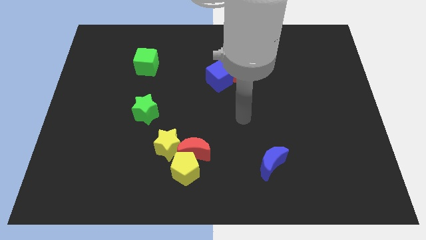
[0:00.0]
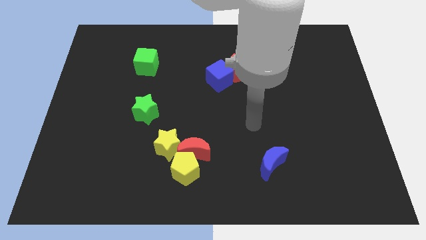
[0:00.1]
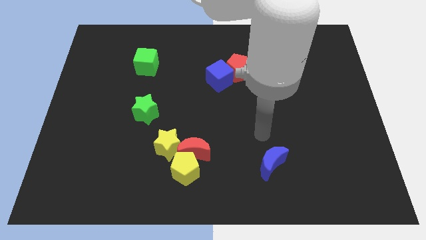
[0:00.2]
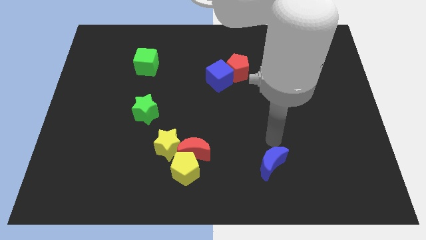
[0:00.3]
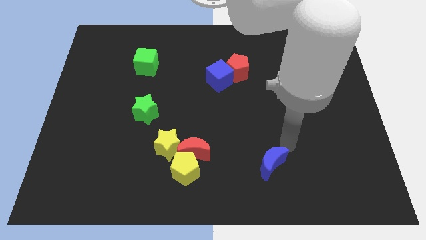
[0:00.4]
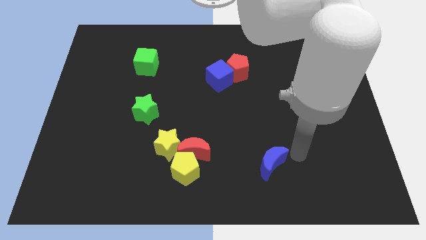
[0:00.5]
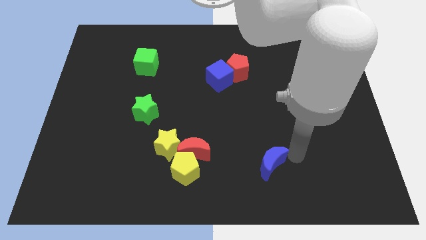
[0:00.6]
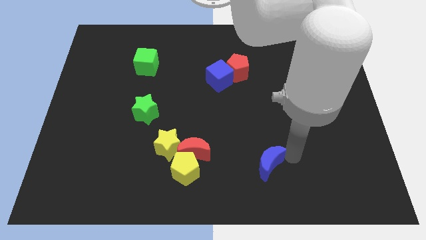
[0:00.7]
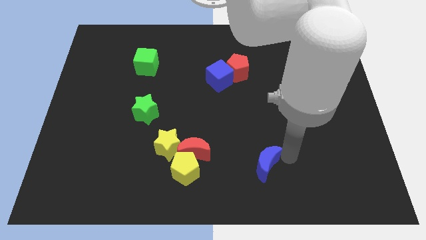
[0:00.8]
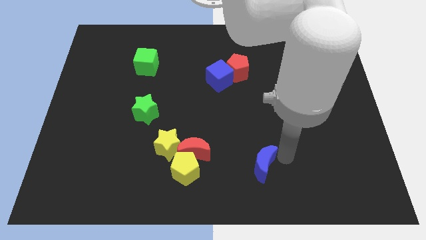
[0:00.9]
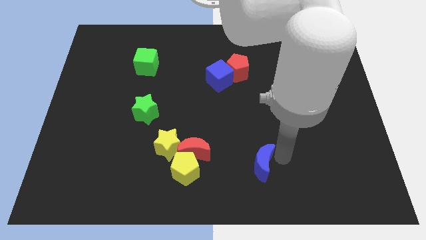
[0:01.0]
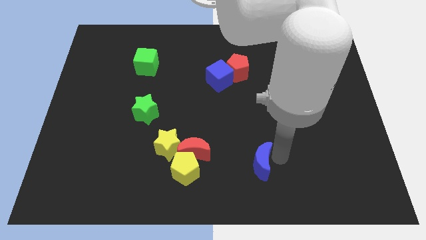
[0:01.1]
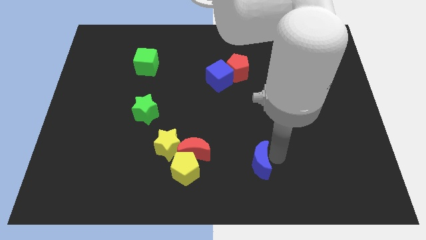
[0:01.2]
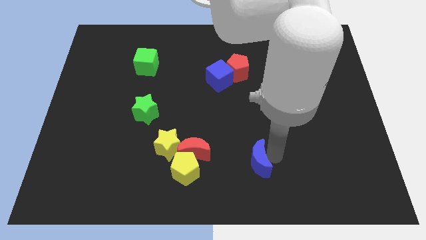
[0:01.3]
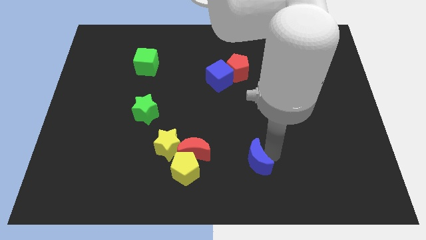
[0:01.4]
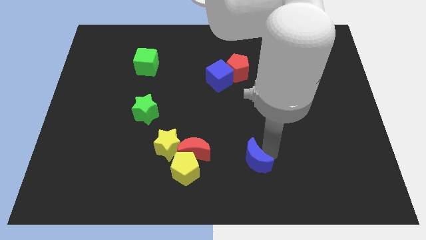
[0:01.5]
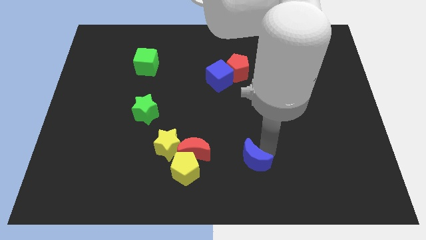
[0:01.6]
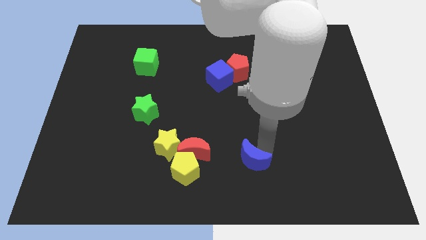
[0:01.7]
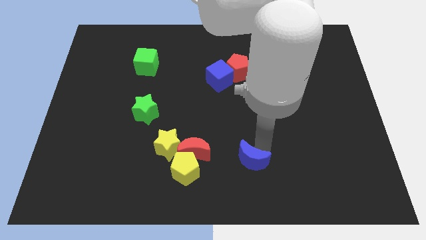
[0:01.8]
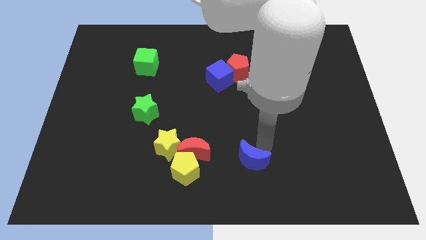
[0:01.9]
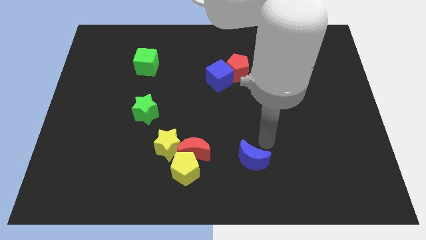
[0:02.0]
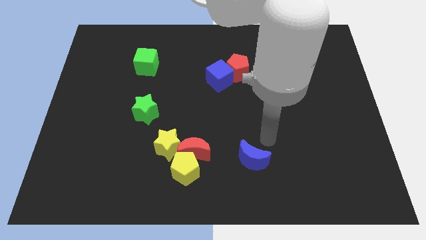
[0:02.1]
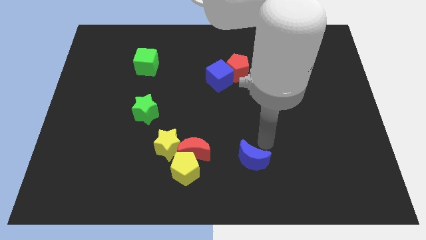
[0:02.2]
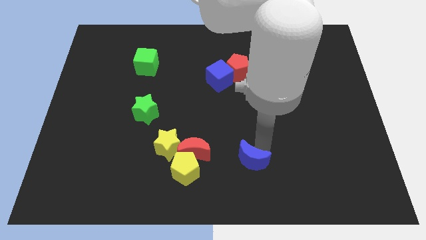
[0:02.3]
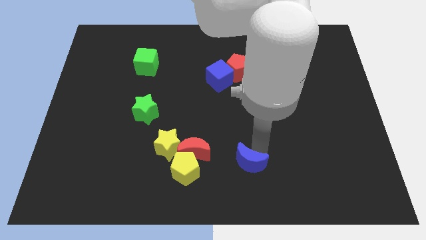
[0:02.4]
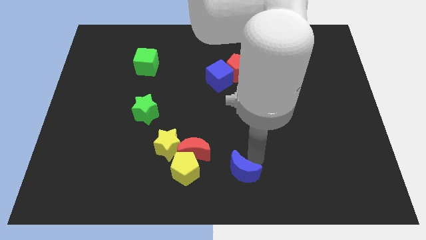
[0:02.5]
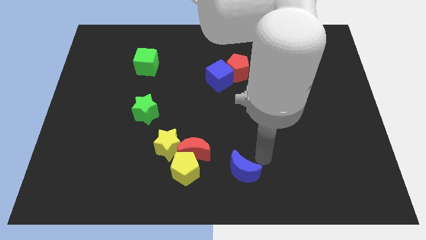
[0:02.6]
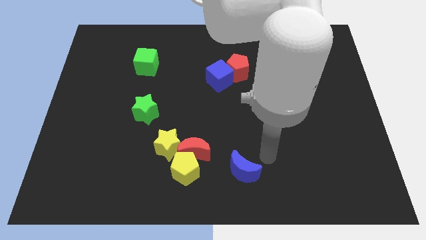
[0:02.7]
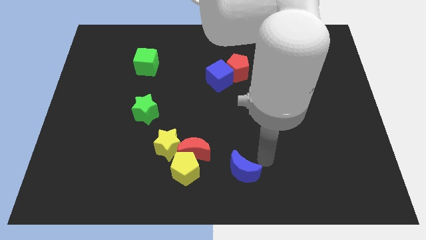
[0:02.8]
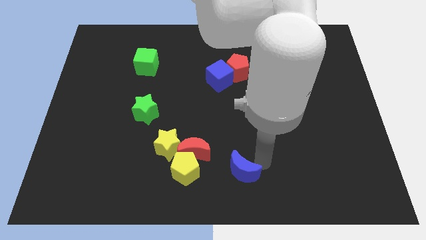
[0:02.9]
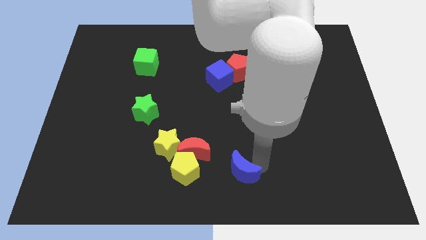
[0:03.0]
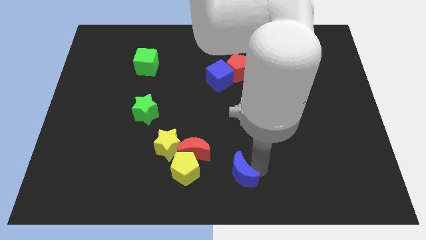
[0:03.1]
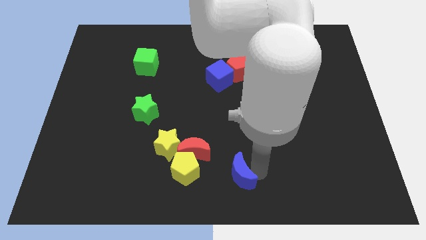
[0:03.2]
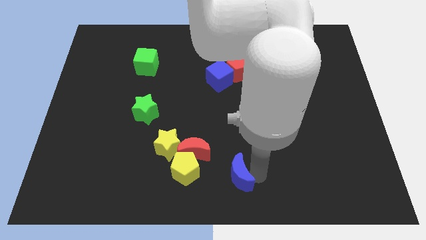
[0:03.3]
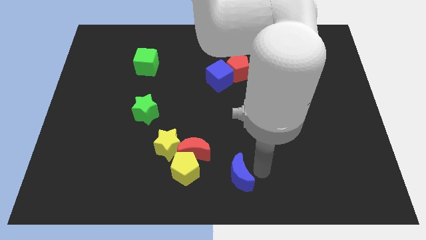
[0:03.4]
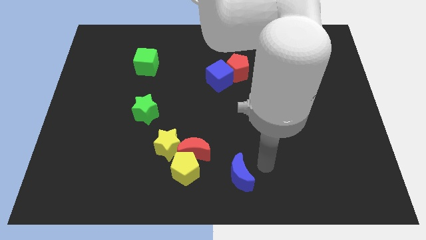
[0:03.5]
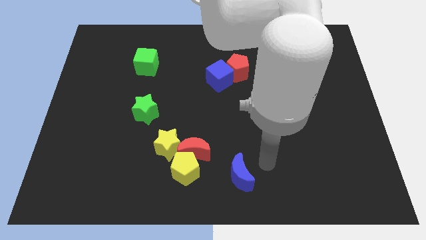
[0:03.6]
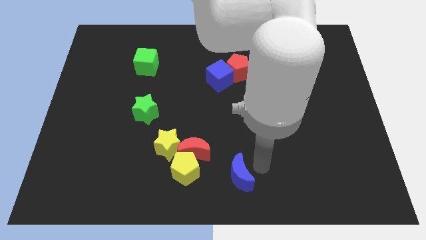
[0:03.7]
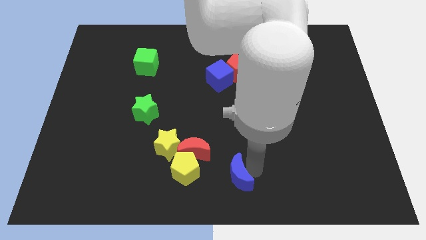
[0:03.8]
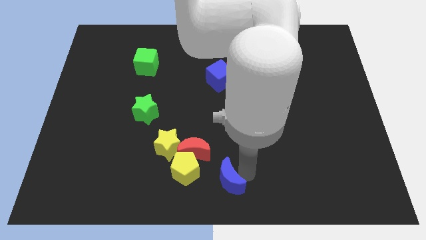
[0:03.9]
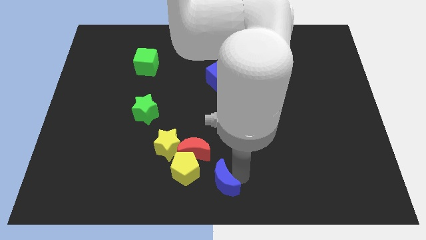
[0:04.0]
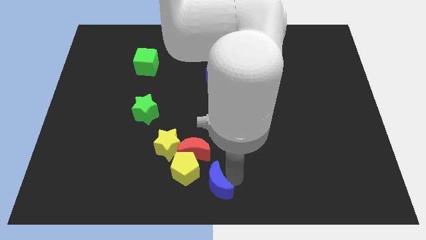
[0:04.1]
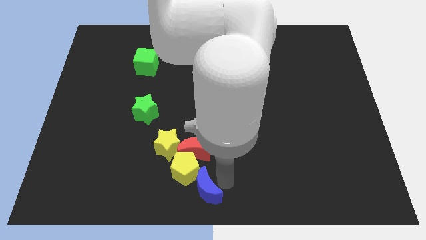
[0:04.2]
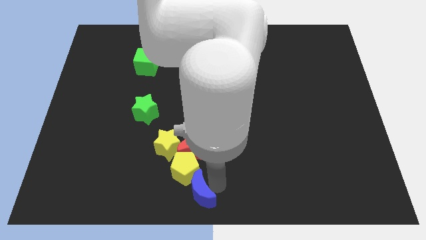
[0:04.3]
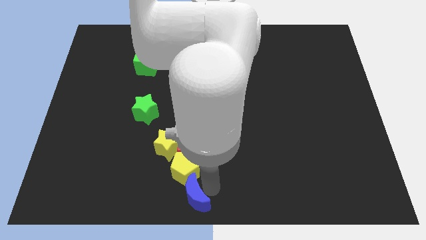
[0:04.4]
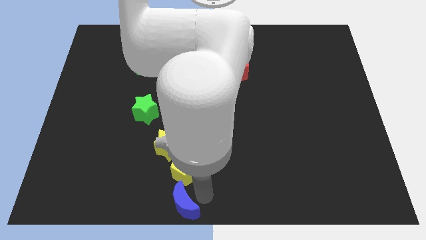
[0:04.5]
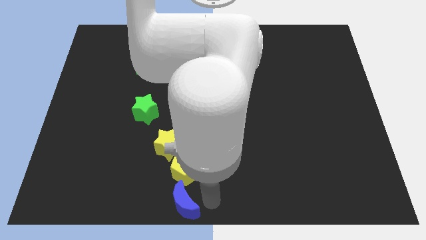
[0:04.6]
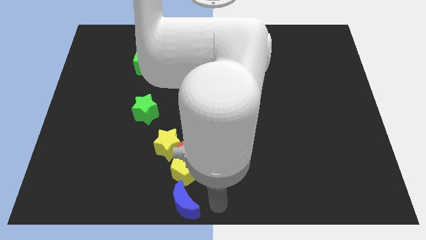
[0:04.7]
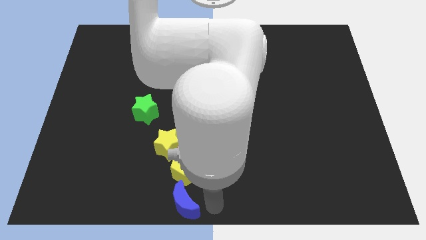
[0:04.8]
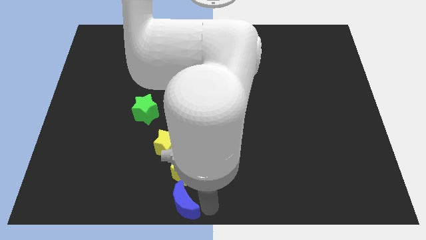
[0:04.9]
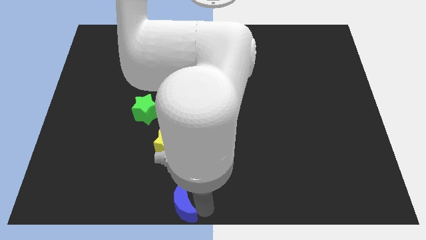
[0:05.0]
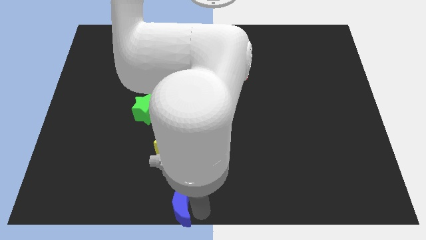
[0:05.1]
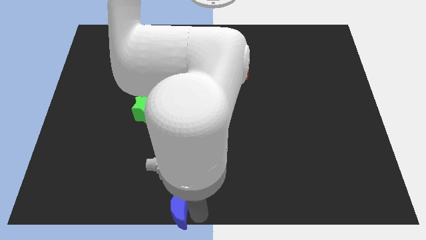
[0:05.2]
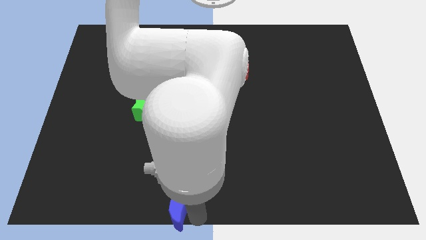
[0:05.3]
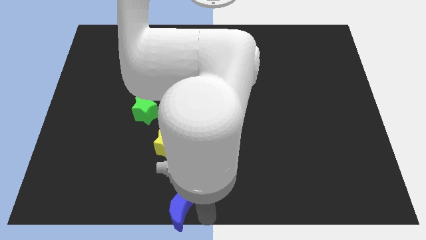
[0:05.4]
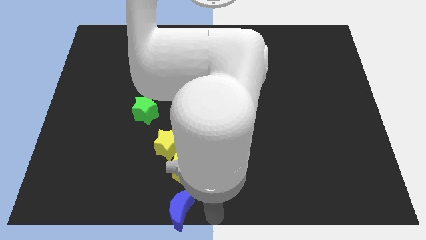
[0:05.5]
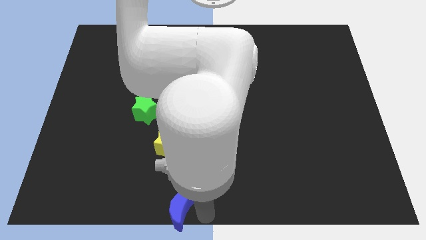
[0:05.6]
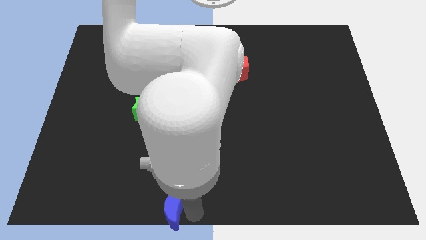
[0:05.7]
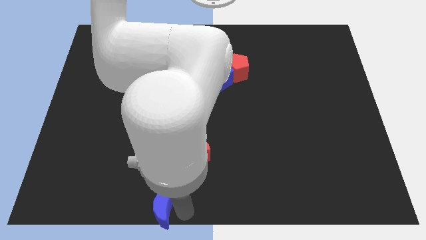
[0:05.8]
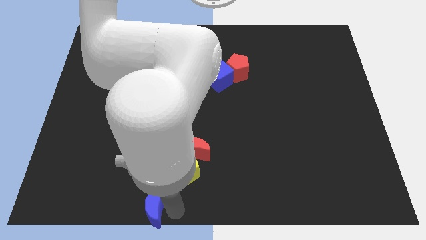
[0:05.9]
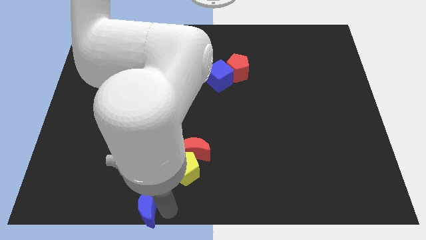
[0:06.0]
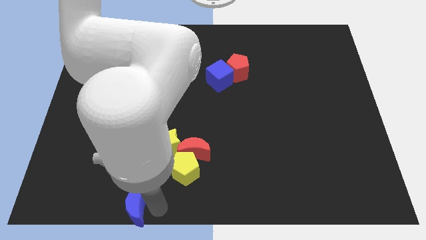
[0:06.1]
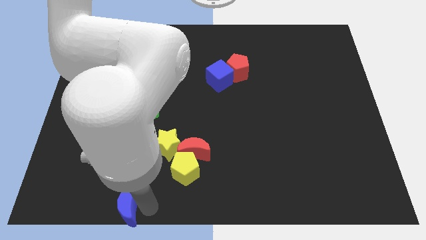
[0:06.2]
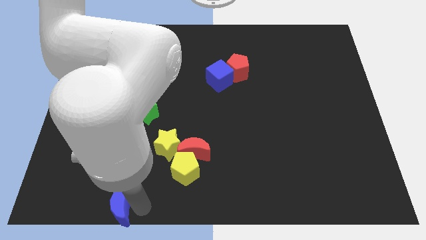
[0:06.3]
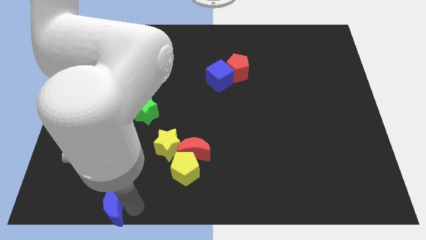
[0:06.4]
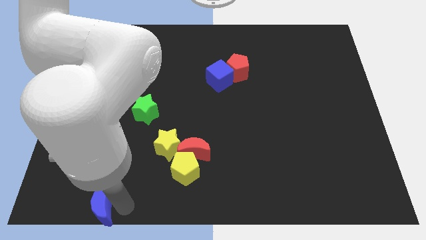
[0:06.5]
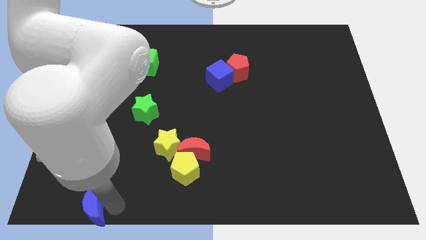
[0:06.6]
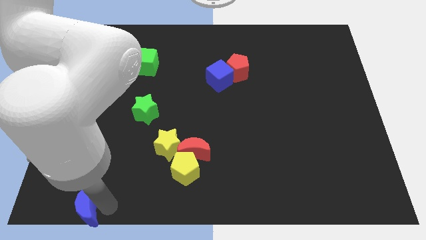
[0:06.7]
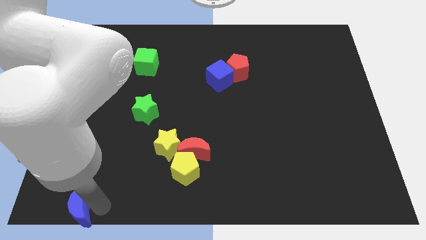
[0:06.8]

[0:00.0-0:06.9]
push the blue moon to the bottom left

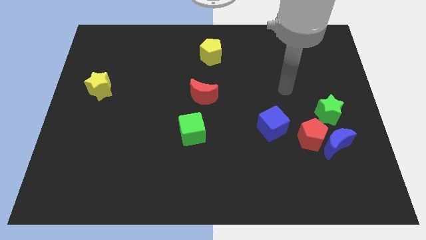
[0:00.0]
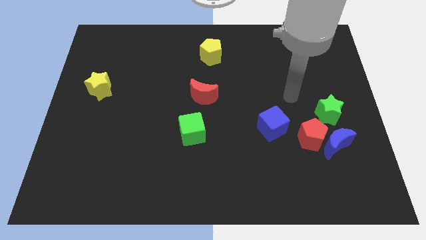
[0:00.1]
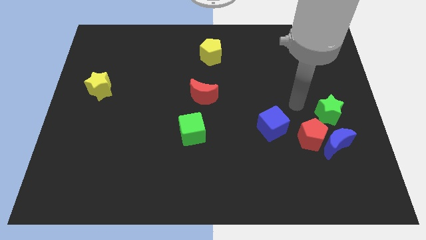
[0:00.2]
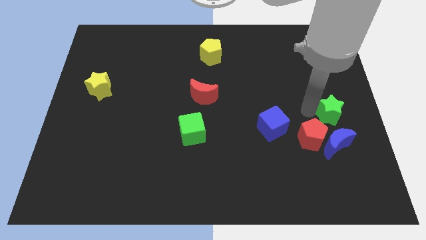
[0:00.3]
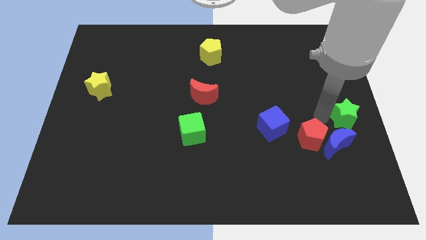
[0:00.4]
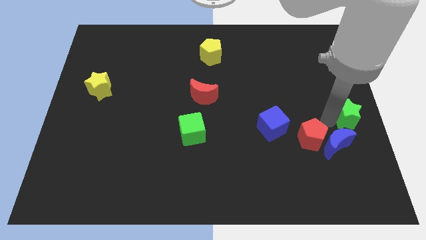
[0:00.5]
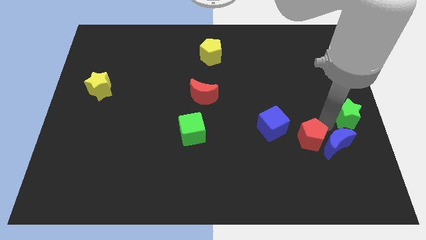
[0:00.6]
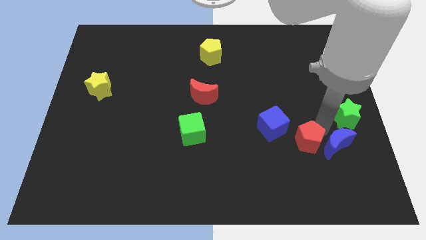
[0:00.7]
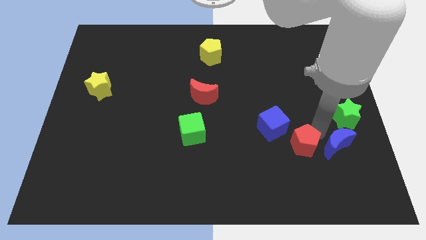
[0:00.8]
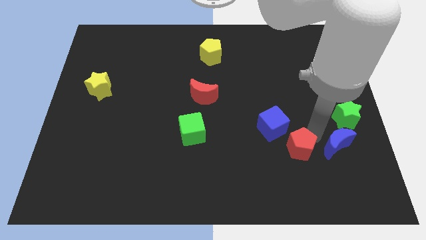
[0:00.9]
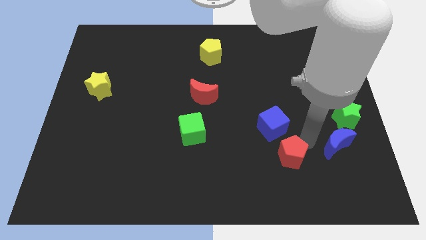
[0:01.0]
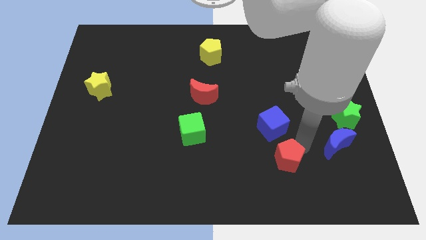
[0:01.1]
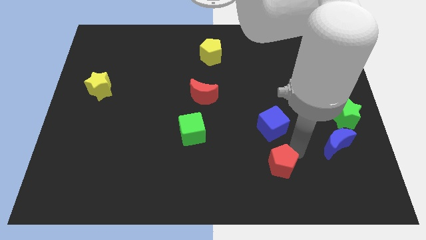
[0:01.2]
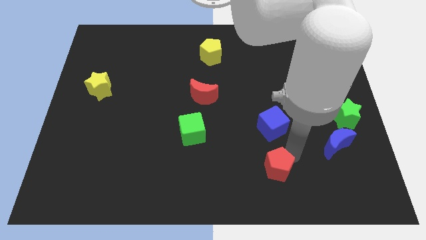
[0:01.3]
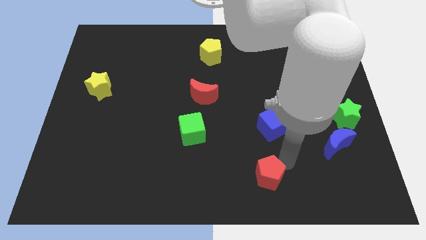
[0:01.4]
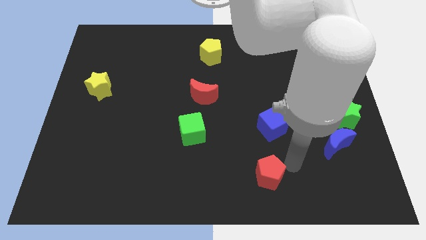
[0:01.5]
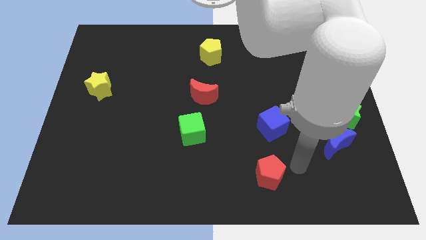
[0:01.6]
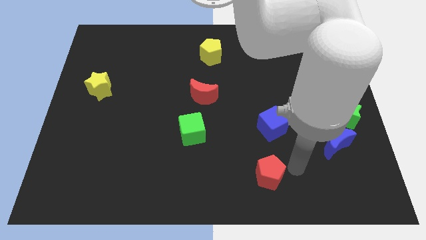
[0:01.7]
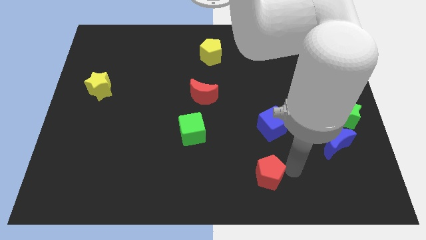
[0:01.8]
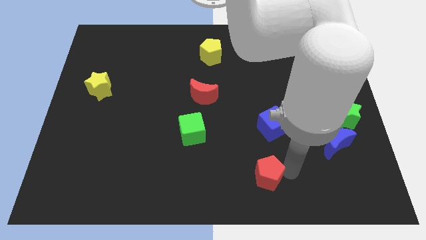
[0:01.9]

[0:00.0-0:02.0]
put the red pentagon to the bottom side
